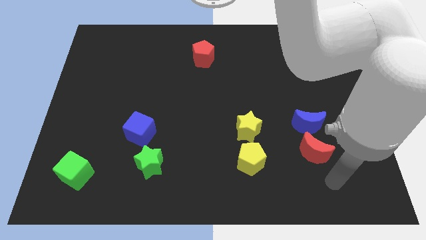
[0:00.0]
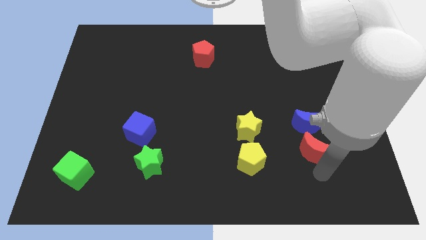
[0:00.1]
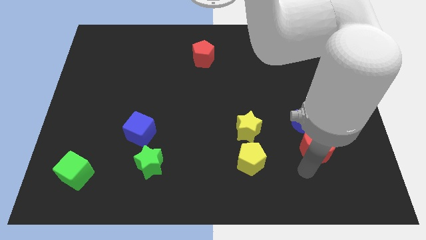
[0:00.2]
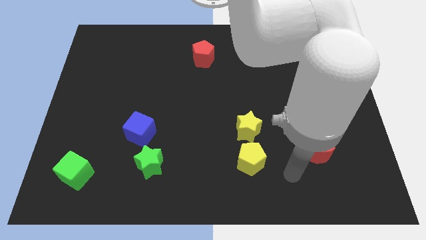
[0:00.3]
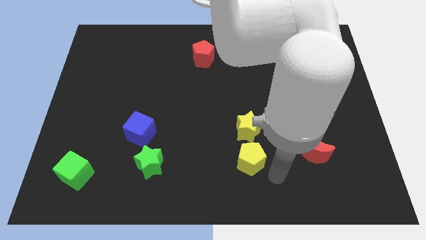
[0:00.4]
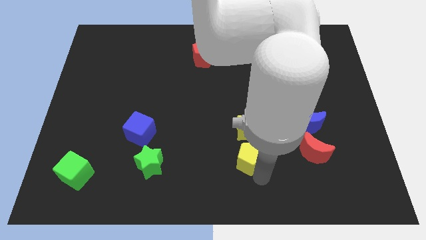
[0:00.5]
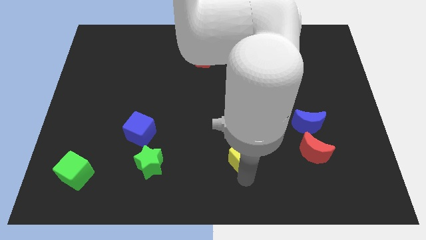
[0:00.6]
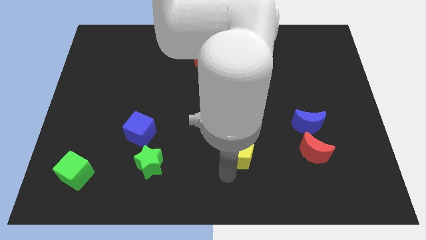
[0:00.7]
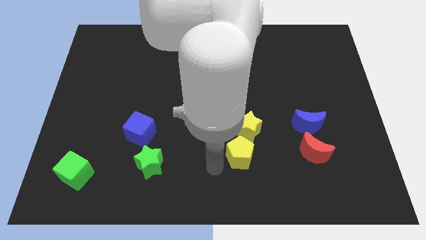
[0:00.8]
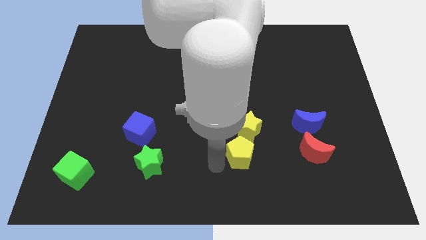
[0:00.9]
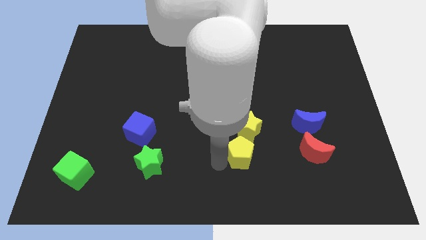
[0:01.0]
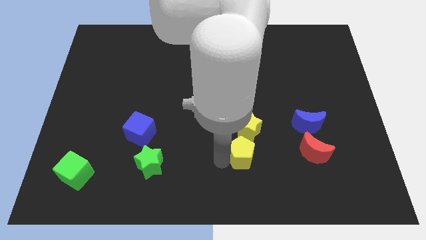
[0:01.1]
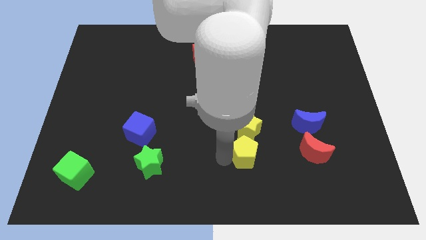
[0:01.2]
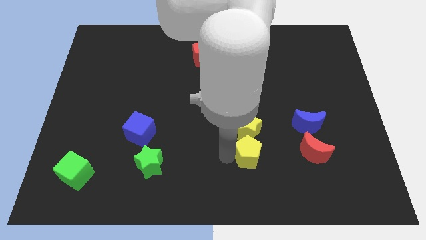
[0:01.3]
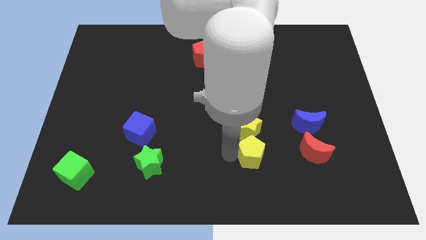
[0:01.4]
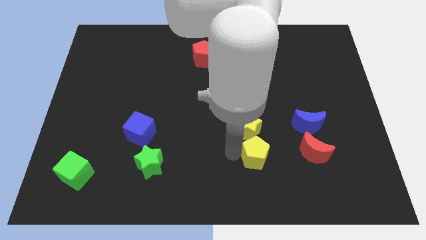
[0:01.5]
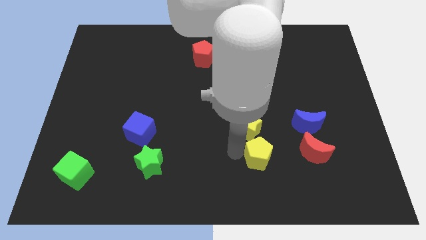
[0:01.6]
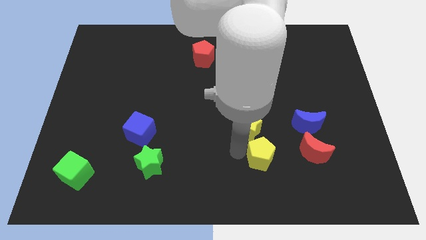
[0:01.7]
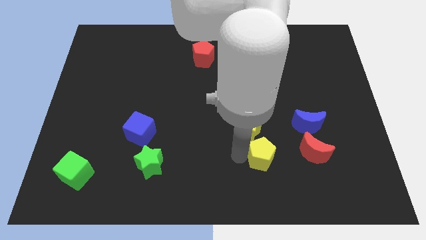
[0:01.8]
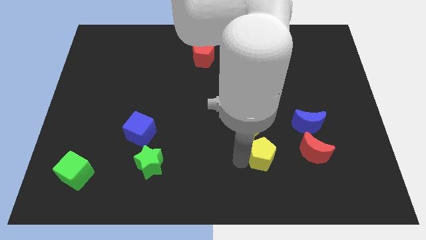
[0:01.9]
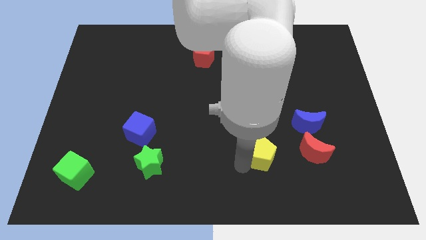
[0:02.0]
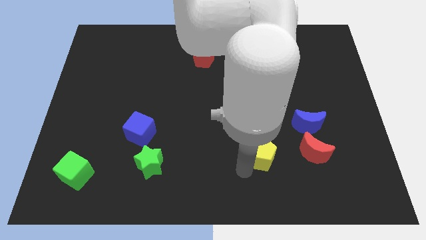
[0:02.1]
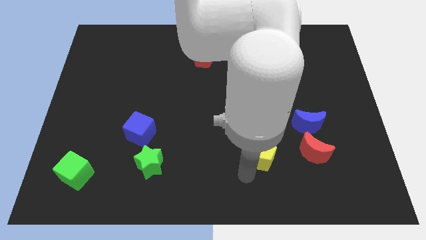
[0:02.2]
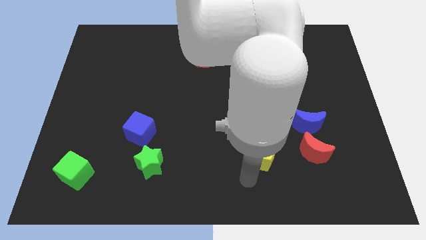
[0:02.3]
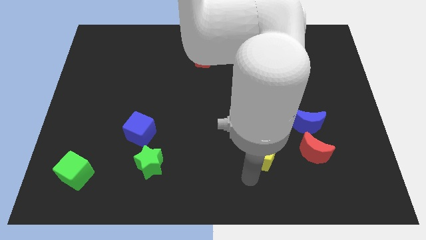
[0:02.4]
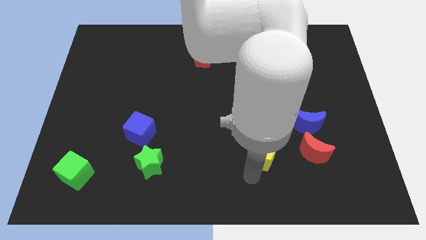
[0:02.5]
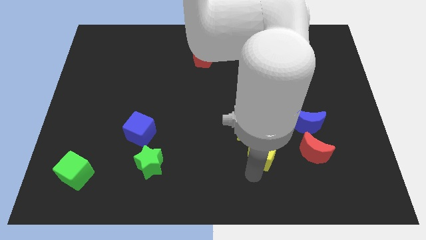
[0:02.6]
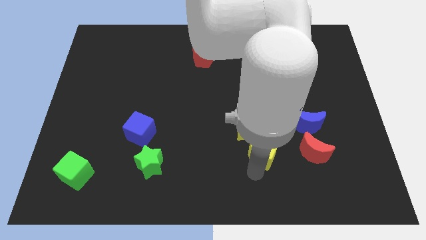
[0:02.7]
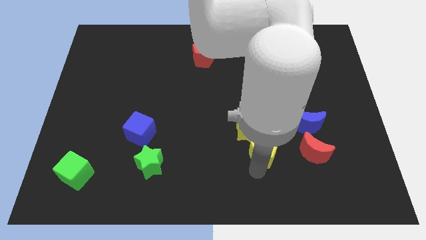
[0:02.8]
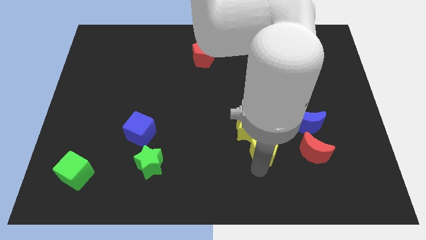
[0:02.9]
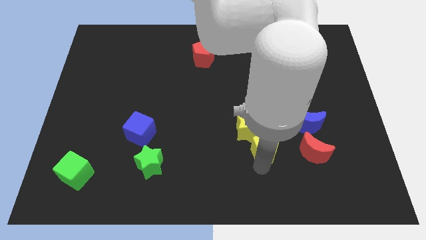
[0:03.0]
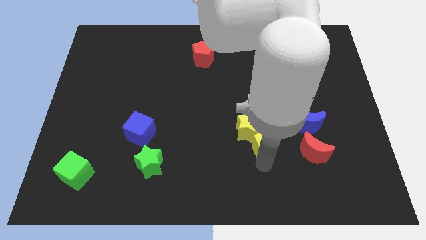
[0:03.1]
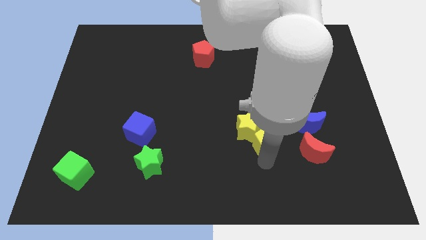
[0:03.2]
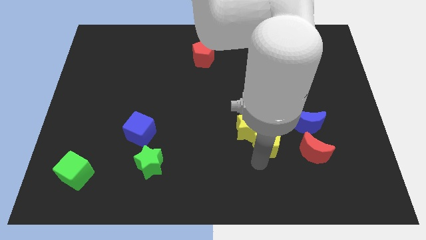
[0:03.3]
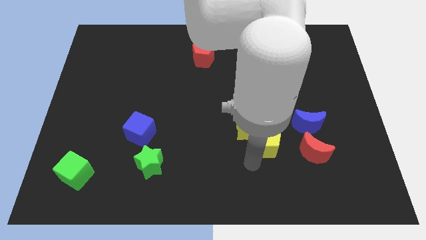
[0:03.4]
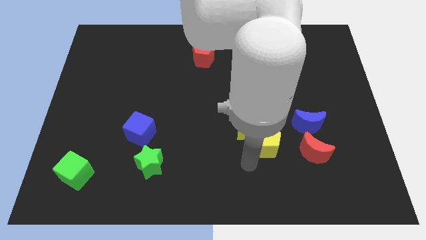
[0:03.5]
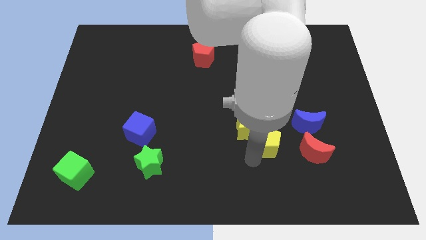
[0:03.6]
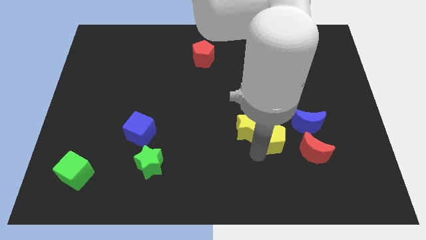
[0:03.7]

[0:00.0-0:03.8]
push the yellow pentagon somewhat upwards and right

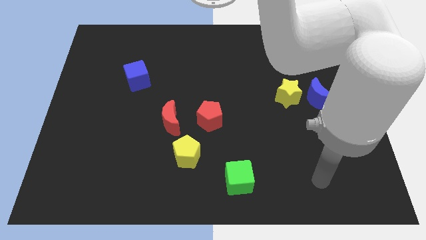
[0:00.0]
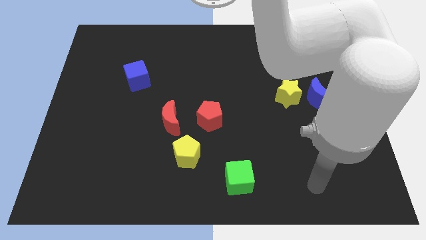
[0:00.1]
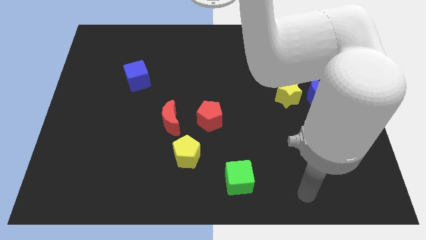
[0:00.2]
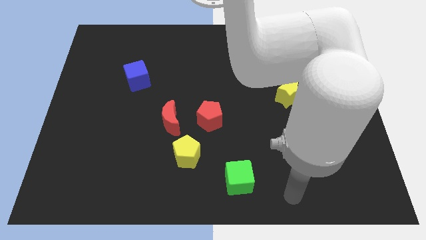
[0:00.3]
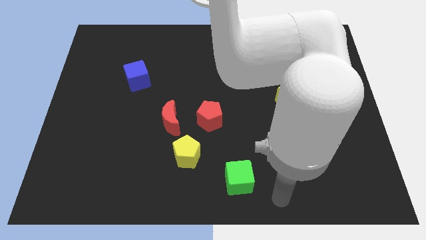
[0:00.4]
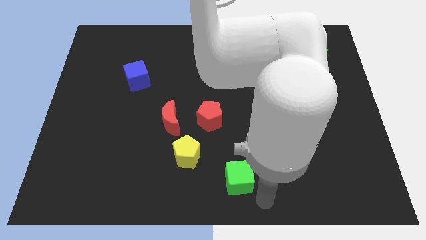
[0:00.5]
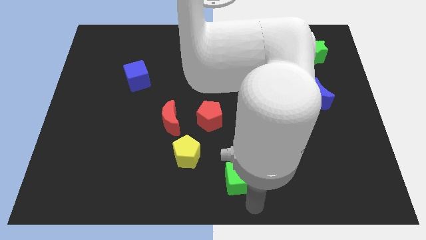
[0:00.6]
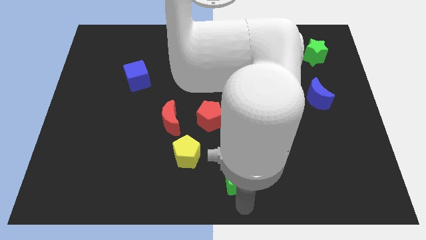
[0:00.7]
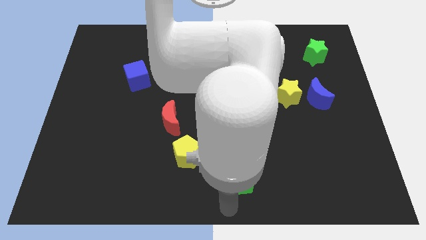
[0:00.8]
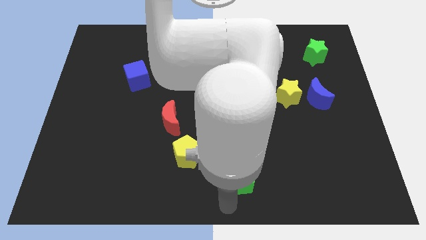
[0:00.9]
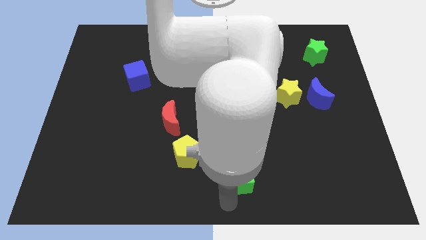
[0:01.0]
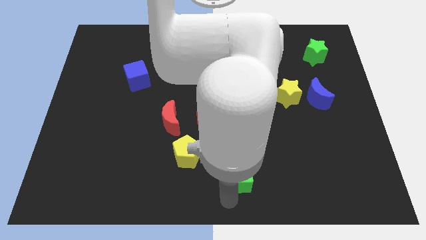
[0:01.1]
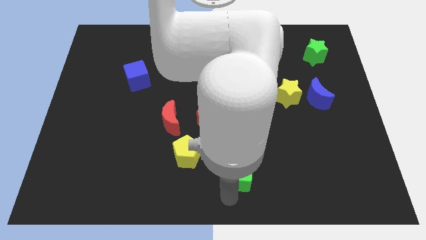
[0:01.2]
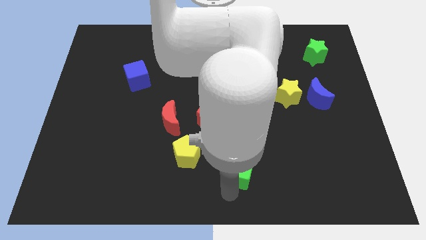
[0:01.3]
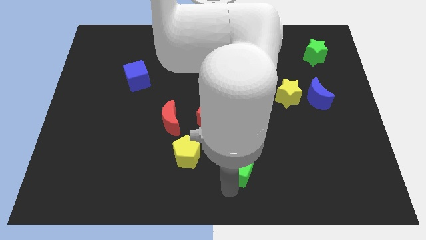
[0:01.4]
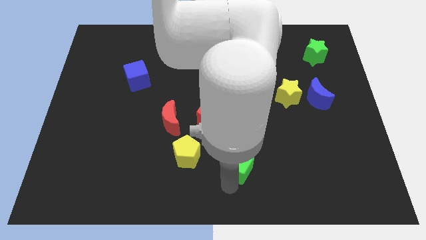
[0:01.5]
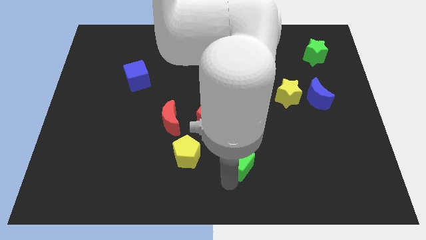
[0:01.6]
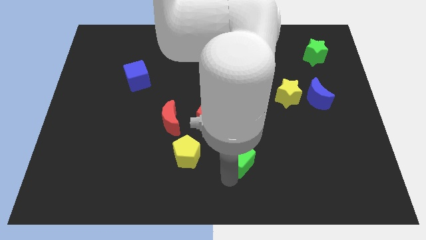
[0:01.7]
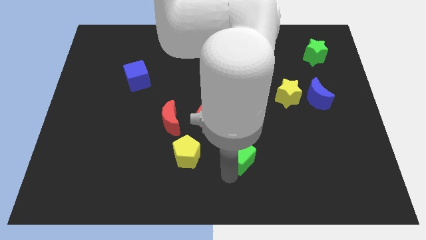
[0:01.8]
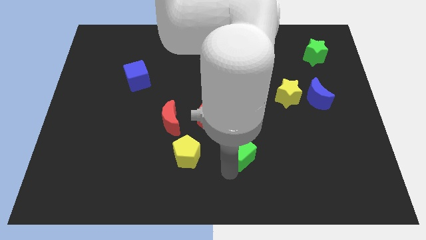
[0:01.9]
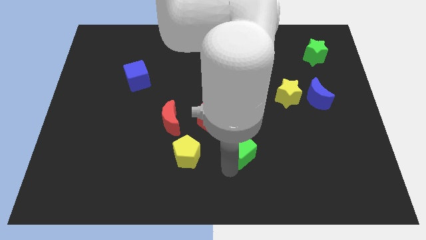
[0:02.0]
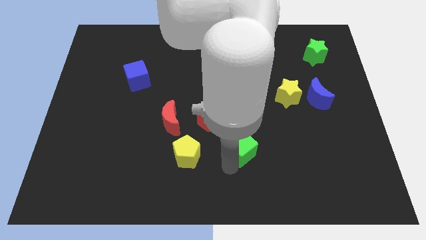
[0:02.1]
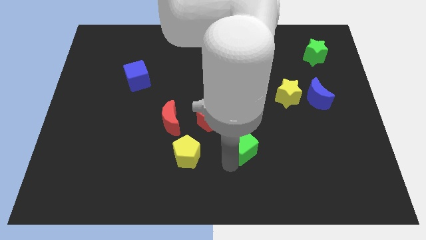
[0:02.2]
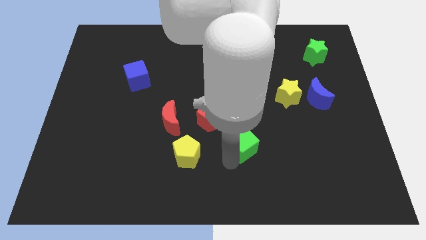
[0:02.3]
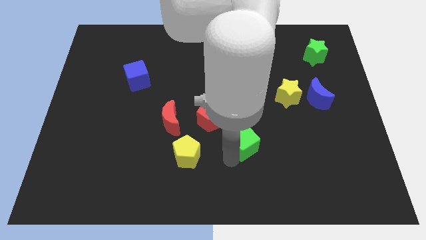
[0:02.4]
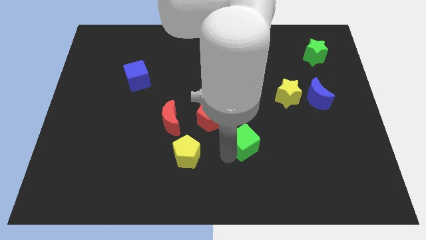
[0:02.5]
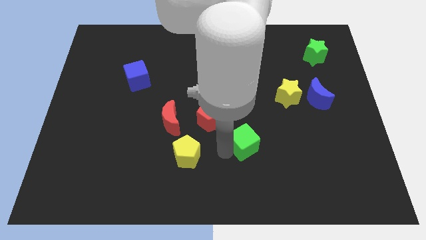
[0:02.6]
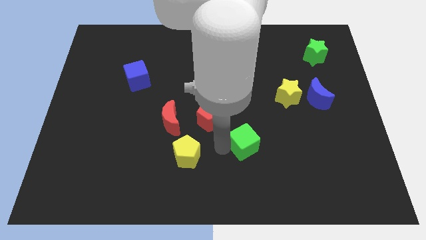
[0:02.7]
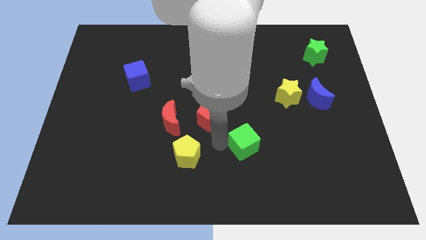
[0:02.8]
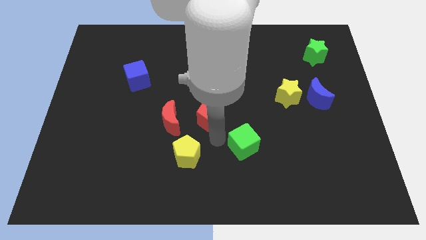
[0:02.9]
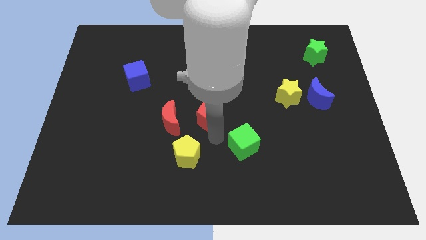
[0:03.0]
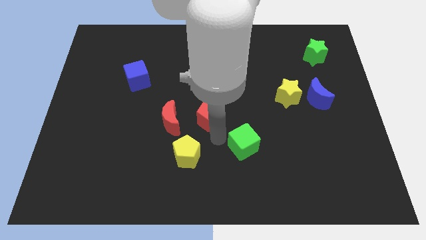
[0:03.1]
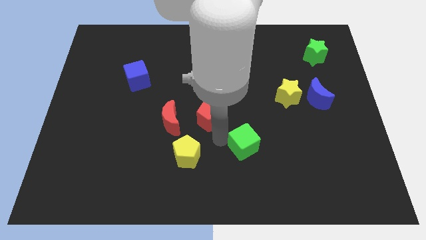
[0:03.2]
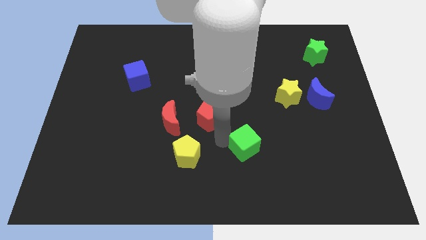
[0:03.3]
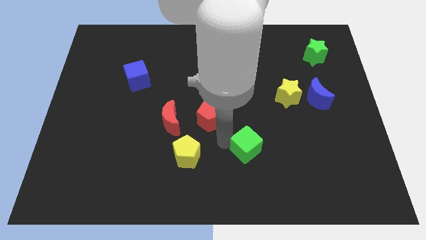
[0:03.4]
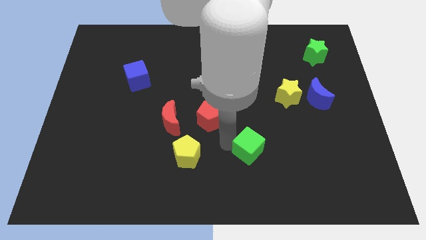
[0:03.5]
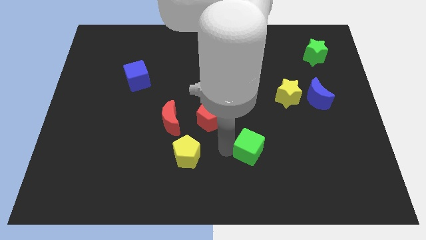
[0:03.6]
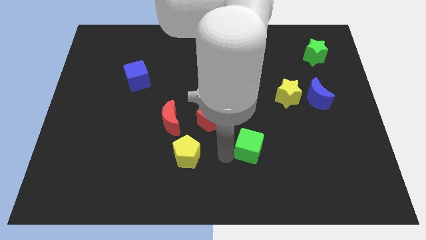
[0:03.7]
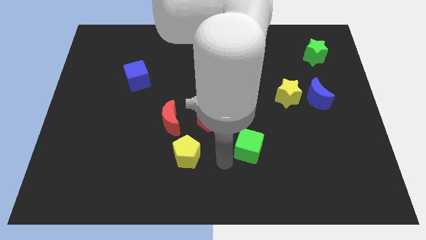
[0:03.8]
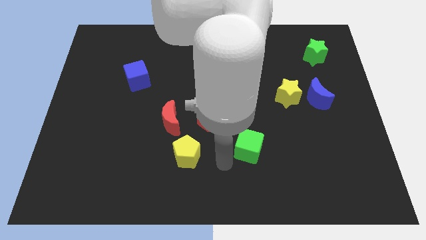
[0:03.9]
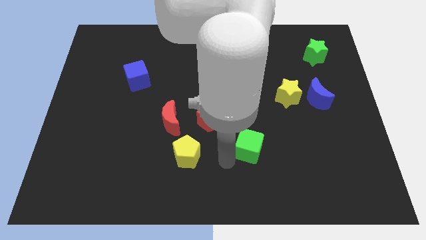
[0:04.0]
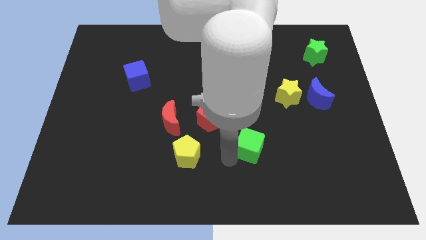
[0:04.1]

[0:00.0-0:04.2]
push the green cube slightly diagonally upwards and to the right

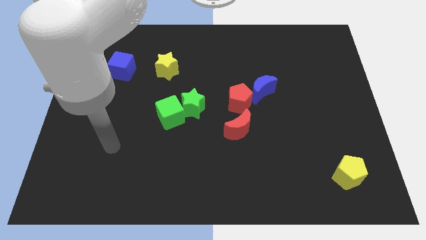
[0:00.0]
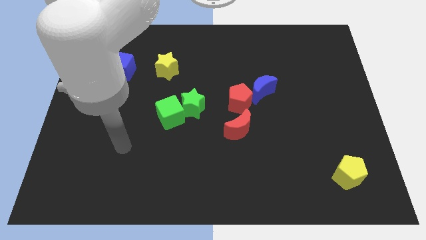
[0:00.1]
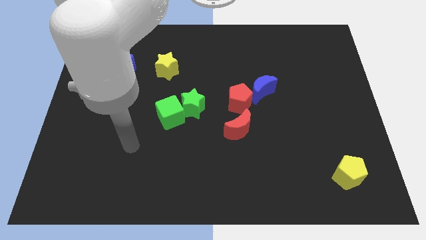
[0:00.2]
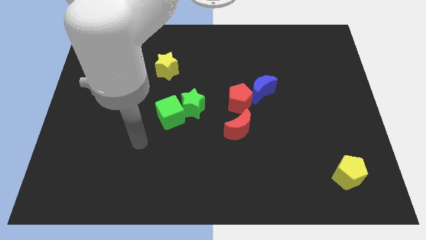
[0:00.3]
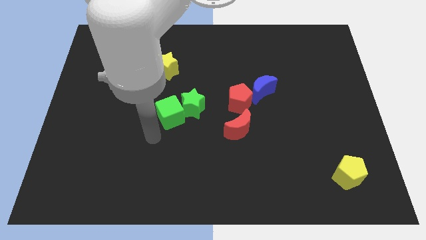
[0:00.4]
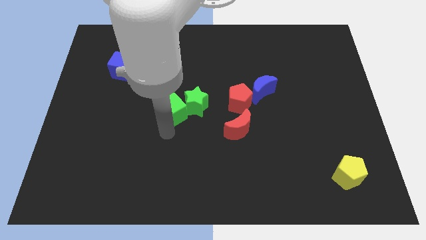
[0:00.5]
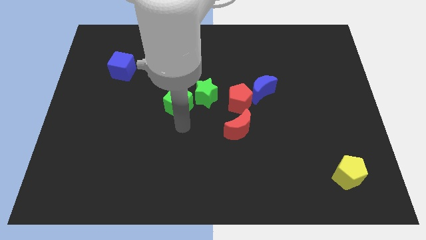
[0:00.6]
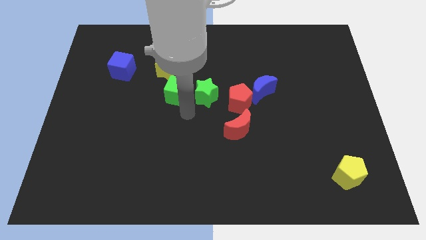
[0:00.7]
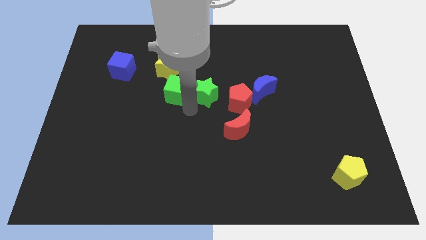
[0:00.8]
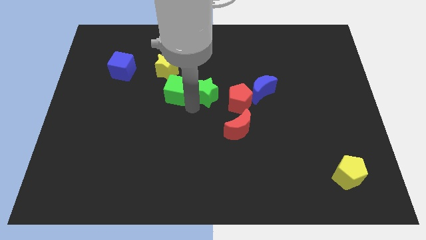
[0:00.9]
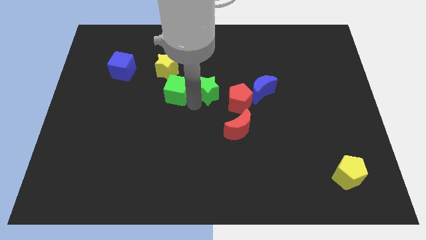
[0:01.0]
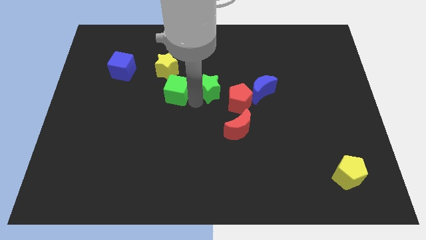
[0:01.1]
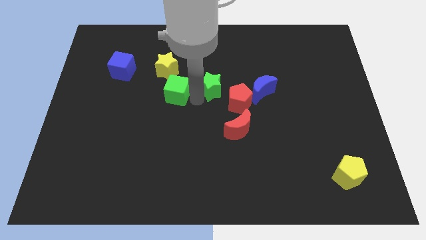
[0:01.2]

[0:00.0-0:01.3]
move the green star a little bit up and right
